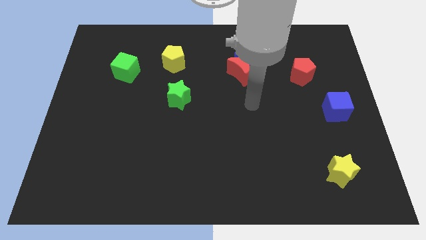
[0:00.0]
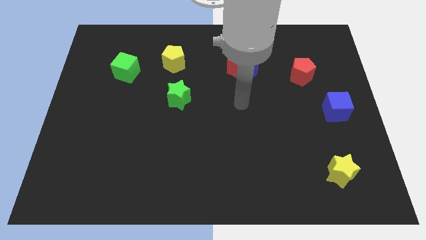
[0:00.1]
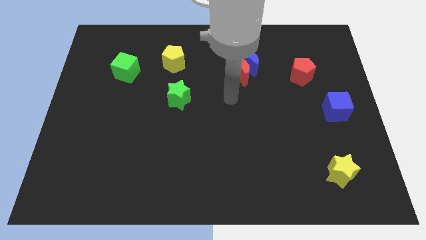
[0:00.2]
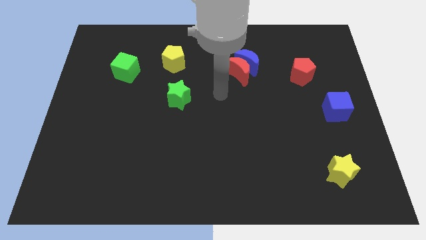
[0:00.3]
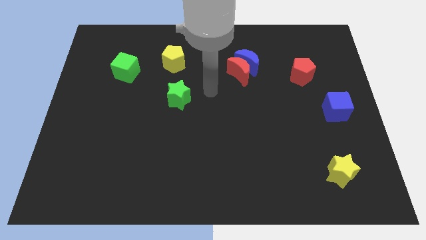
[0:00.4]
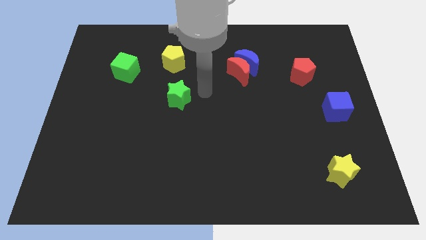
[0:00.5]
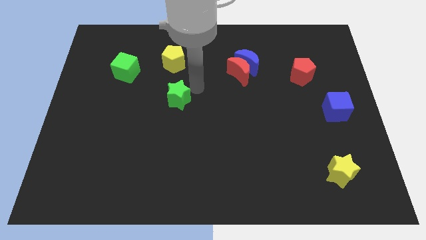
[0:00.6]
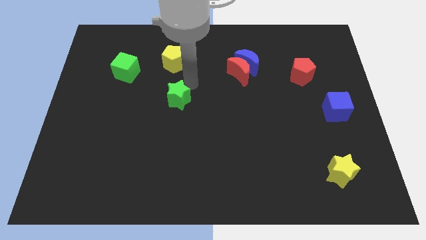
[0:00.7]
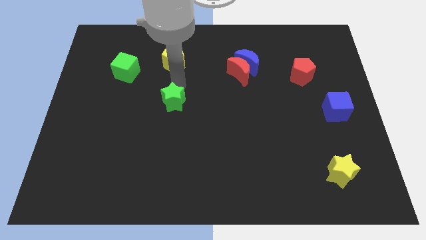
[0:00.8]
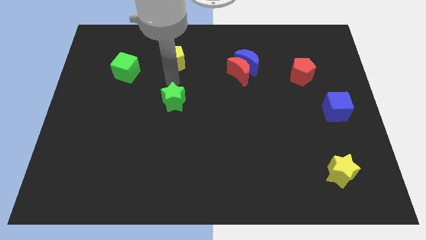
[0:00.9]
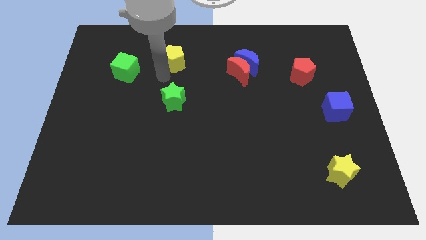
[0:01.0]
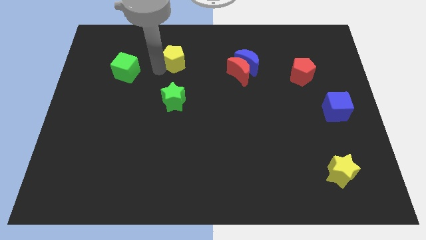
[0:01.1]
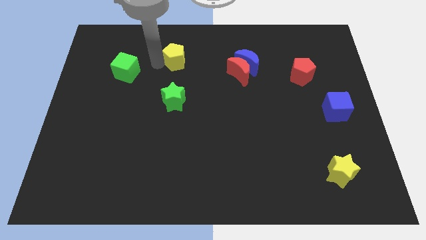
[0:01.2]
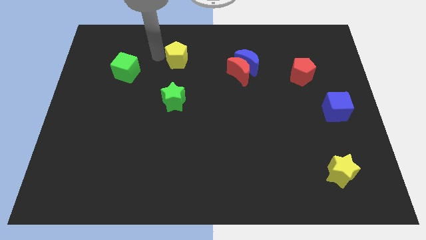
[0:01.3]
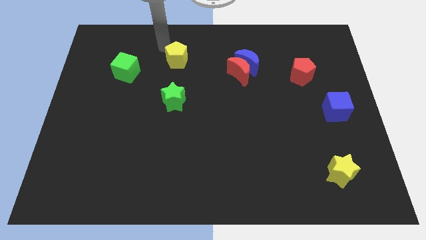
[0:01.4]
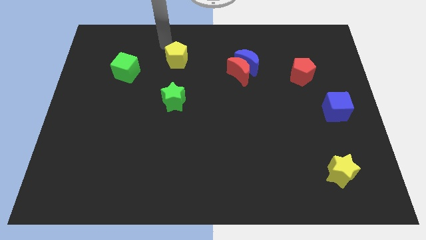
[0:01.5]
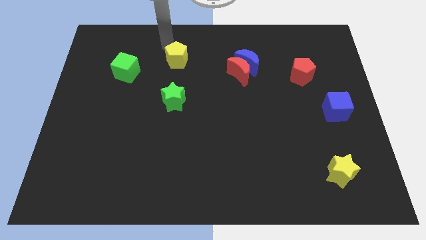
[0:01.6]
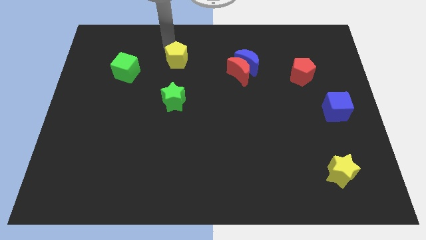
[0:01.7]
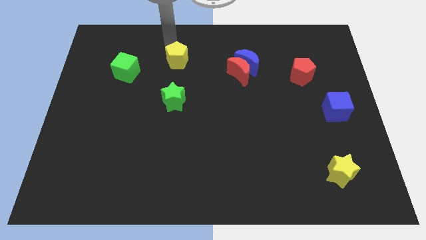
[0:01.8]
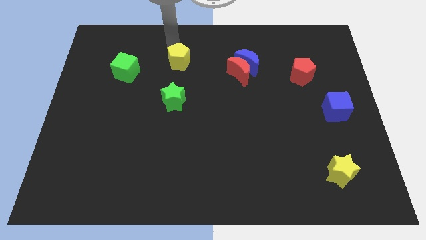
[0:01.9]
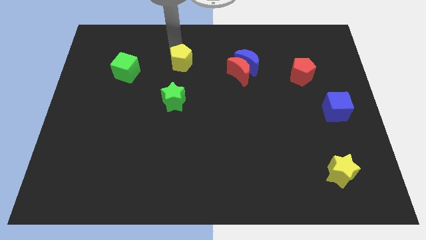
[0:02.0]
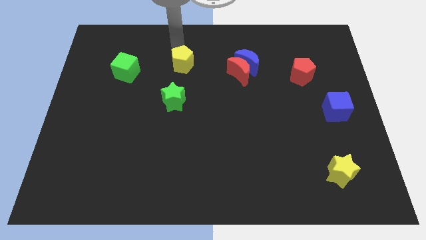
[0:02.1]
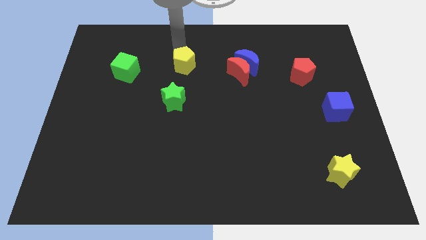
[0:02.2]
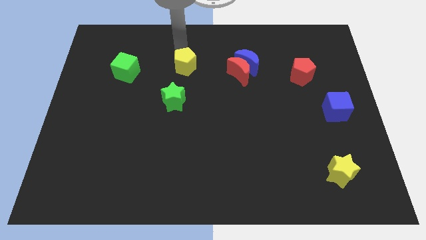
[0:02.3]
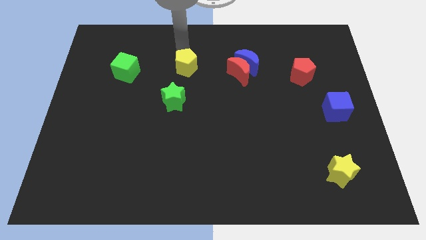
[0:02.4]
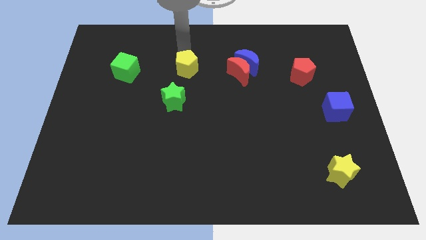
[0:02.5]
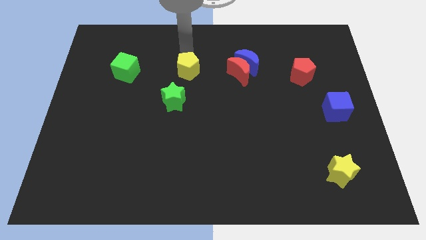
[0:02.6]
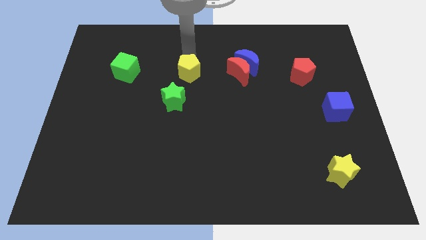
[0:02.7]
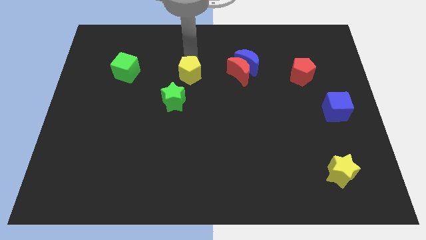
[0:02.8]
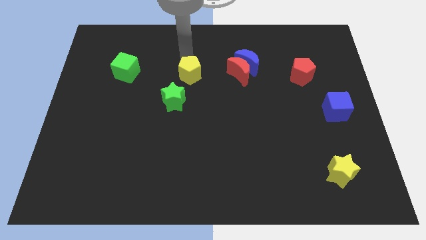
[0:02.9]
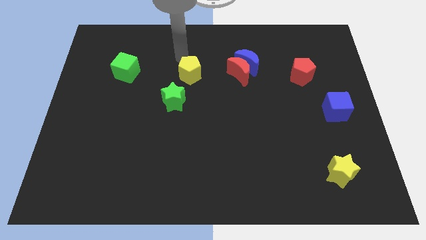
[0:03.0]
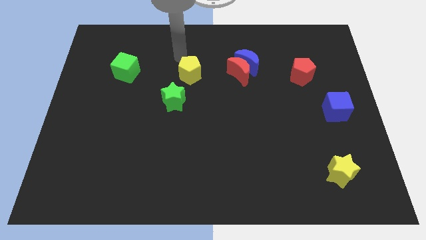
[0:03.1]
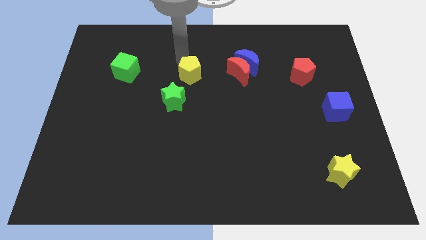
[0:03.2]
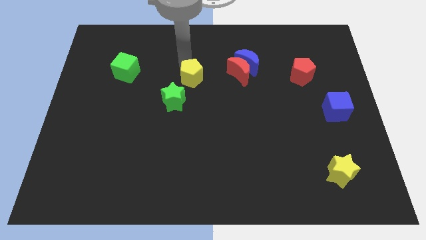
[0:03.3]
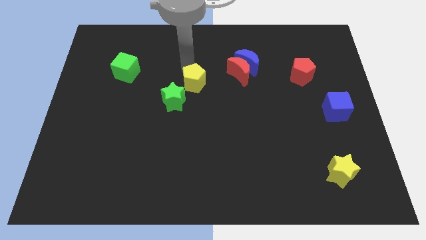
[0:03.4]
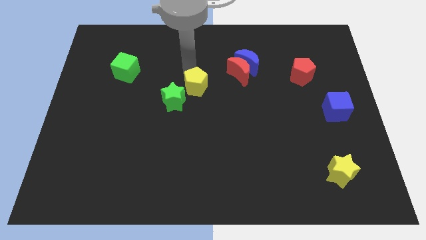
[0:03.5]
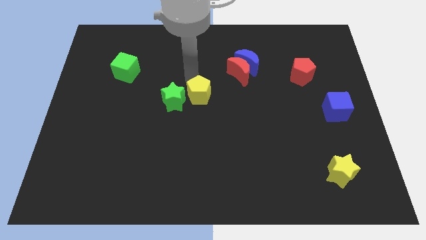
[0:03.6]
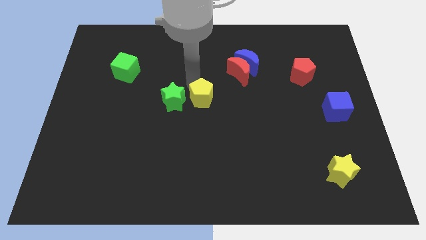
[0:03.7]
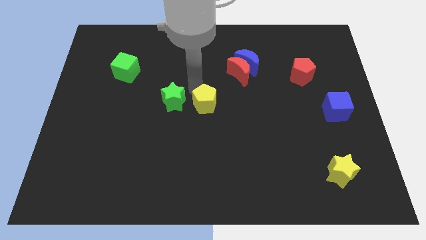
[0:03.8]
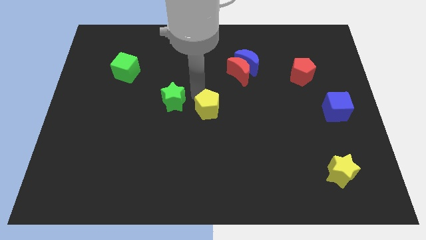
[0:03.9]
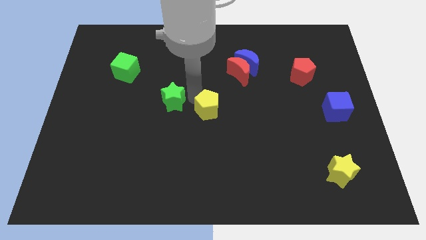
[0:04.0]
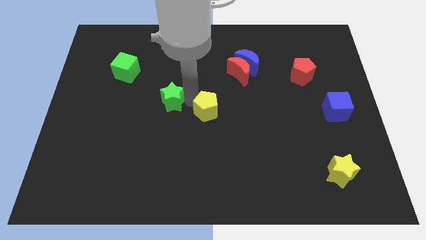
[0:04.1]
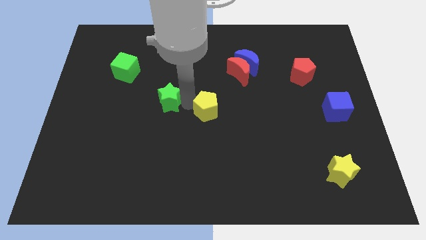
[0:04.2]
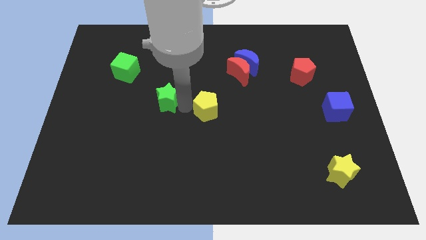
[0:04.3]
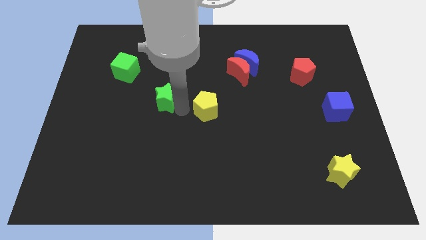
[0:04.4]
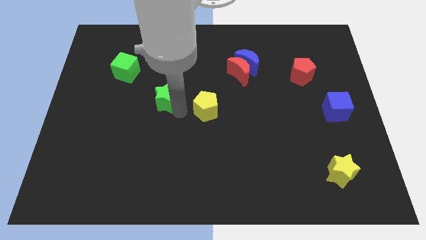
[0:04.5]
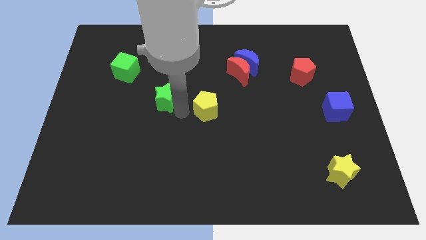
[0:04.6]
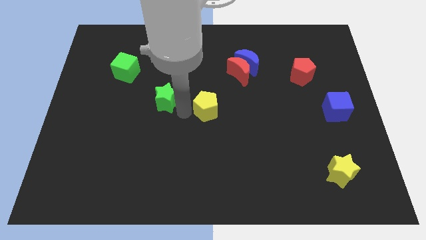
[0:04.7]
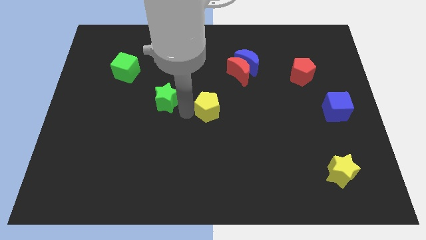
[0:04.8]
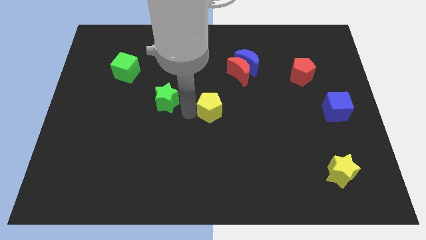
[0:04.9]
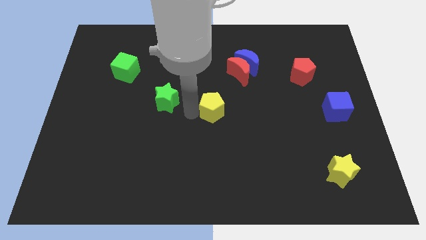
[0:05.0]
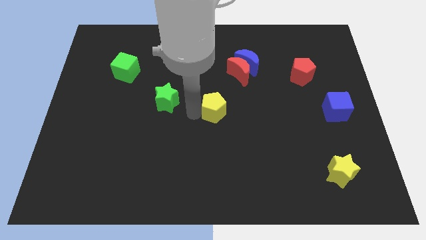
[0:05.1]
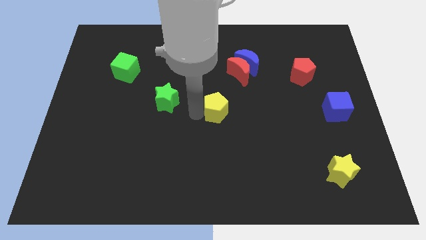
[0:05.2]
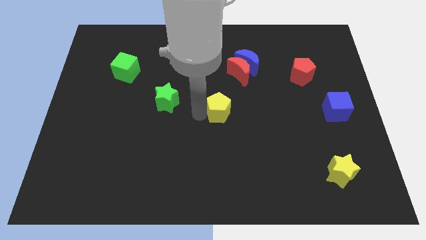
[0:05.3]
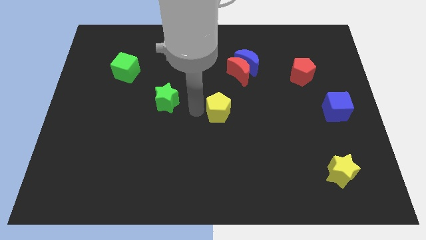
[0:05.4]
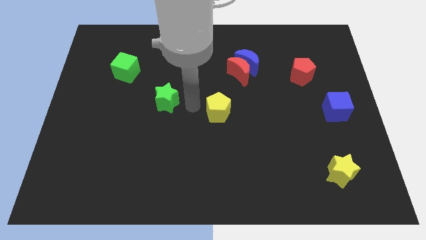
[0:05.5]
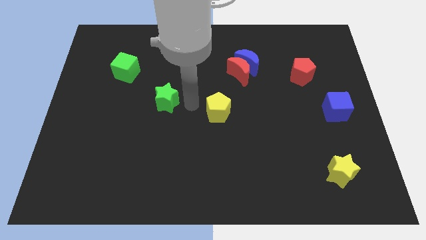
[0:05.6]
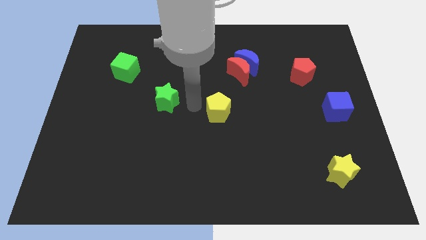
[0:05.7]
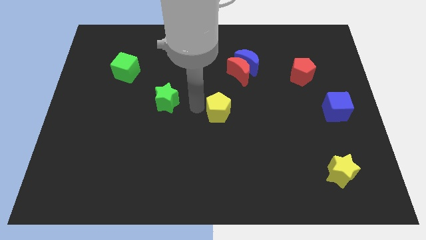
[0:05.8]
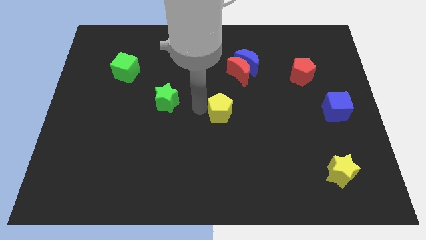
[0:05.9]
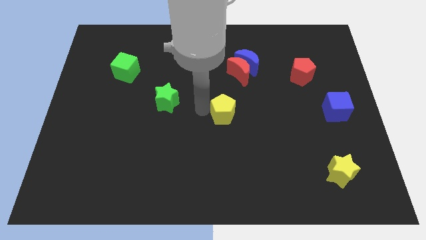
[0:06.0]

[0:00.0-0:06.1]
move the yellow pentagon down and then right

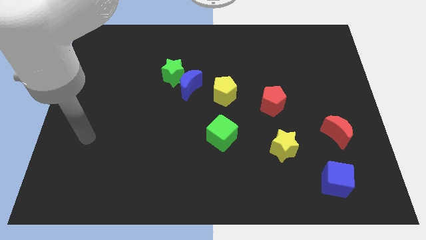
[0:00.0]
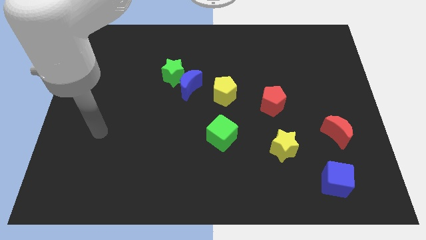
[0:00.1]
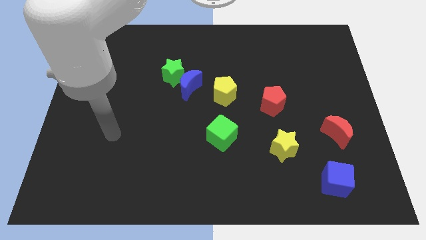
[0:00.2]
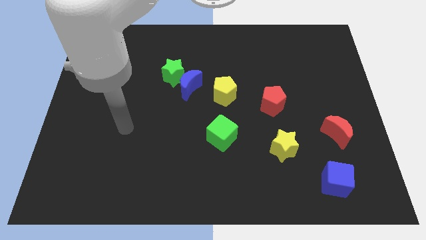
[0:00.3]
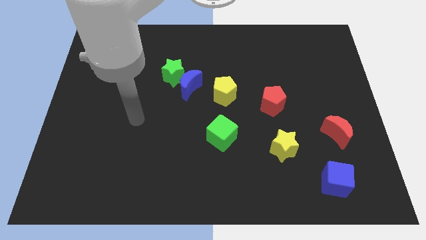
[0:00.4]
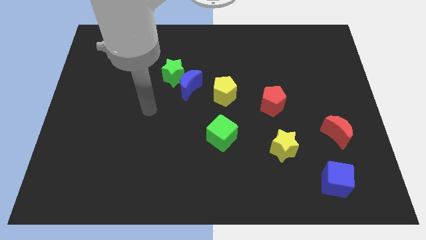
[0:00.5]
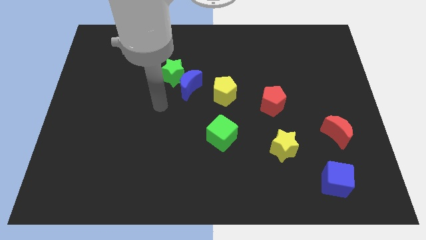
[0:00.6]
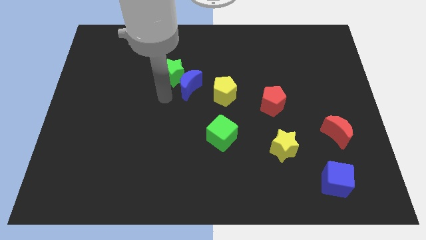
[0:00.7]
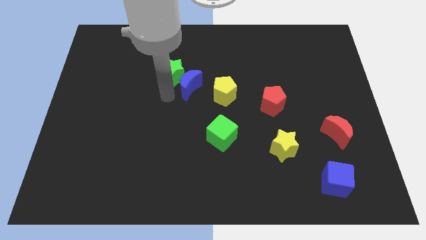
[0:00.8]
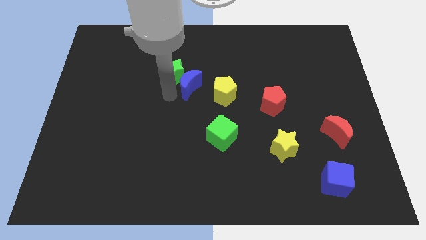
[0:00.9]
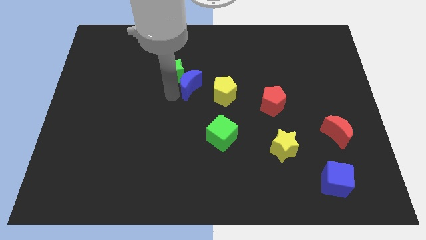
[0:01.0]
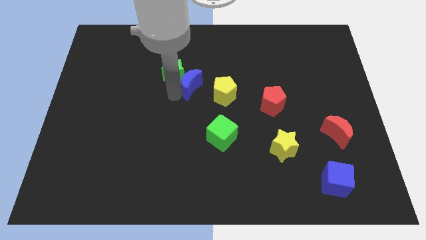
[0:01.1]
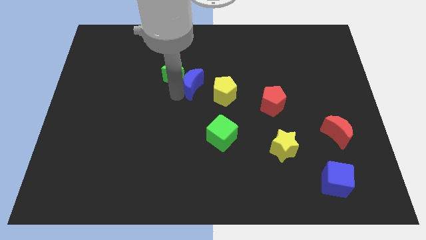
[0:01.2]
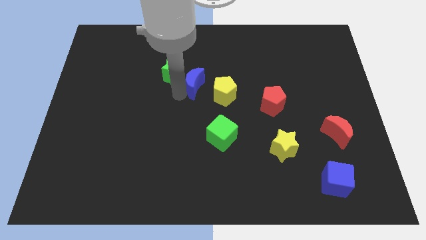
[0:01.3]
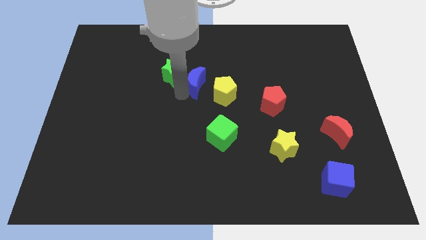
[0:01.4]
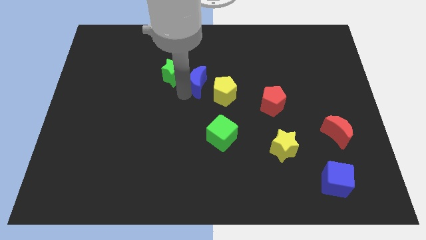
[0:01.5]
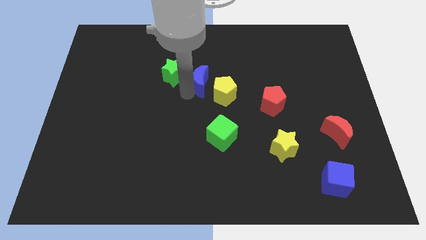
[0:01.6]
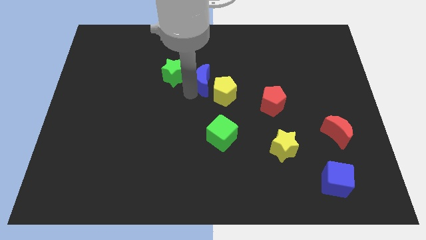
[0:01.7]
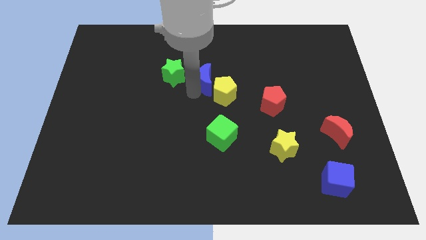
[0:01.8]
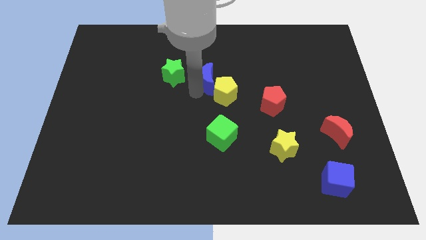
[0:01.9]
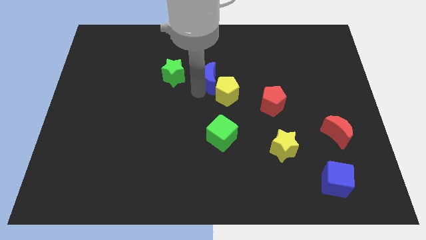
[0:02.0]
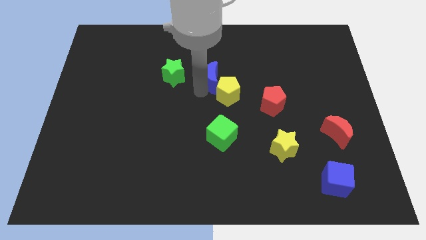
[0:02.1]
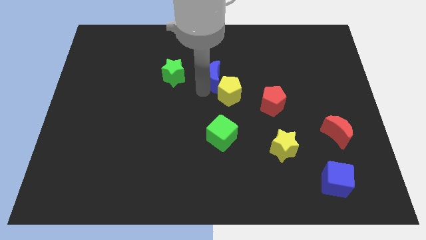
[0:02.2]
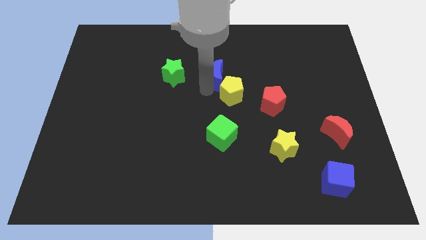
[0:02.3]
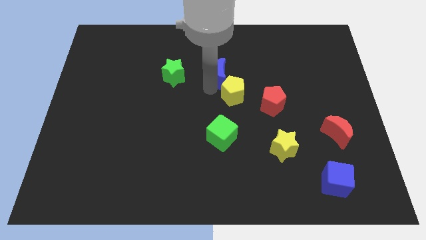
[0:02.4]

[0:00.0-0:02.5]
slide the blue moon slightly to the right
